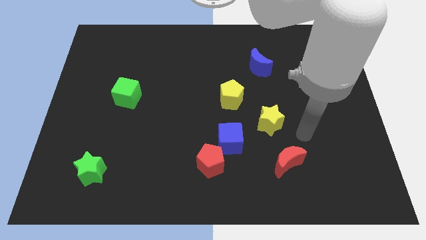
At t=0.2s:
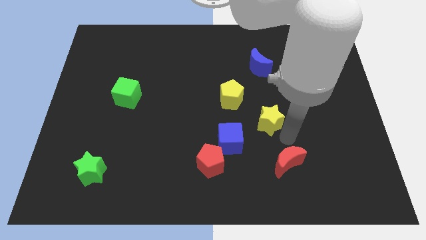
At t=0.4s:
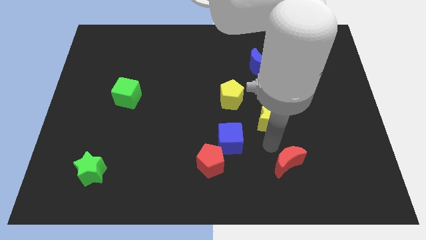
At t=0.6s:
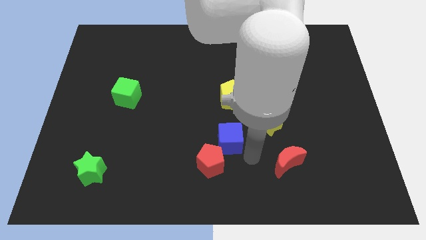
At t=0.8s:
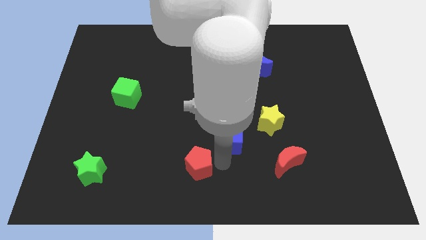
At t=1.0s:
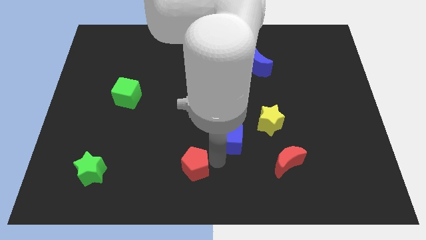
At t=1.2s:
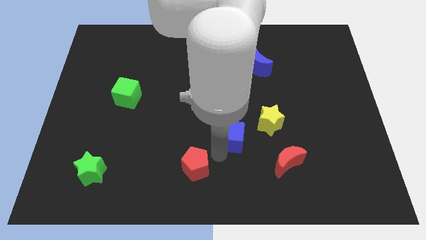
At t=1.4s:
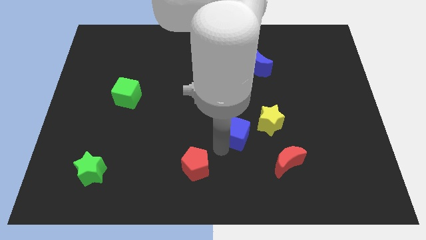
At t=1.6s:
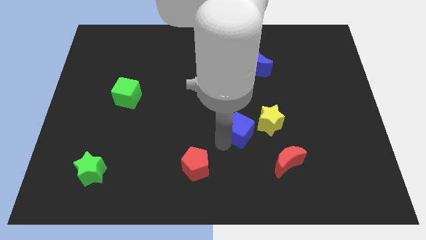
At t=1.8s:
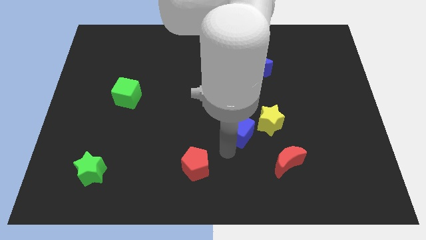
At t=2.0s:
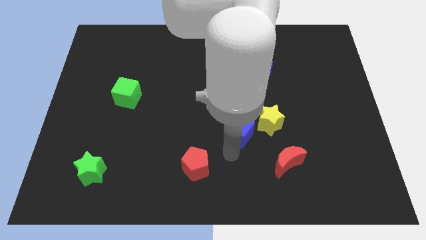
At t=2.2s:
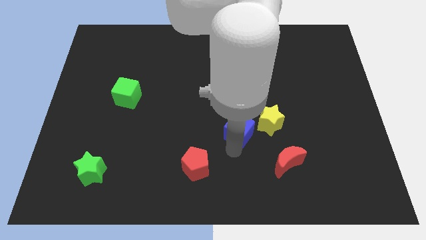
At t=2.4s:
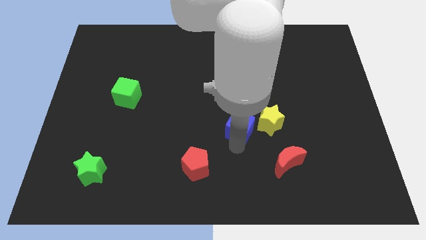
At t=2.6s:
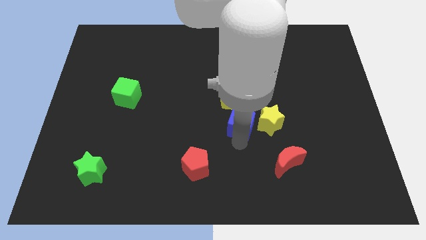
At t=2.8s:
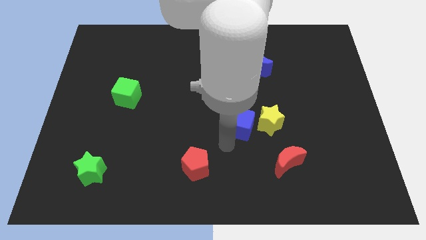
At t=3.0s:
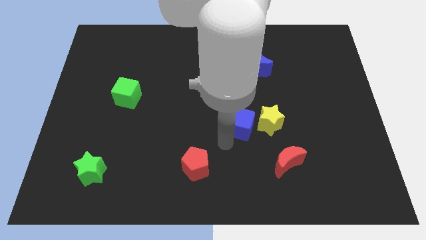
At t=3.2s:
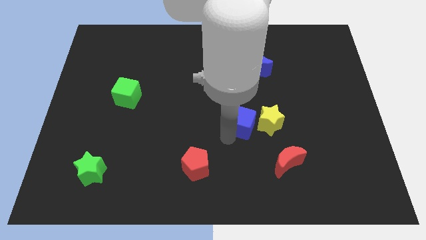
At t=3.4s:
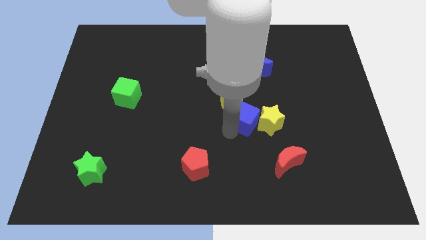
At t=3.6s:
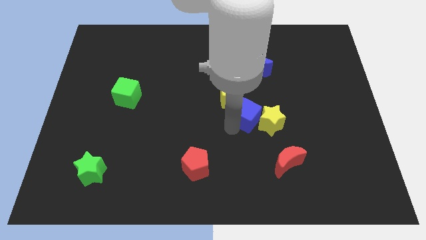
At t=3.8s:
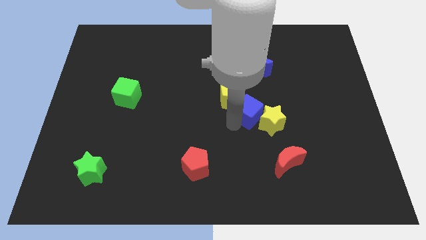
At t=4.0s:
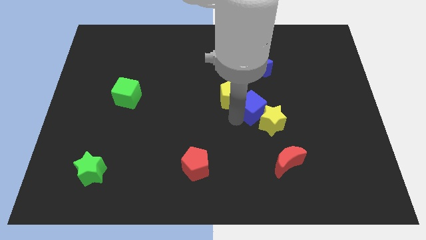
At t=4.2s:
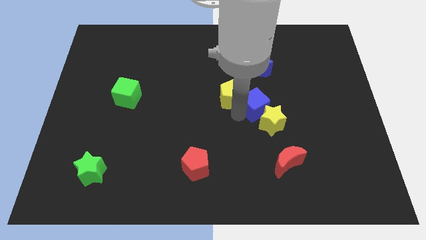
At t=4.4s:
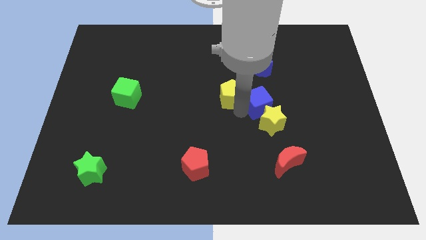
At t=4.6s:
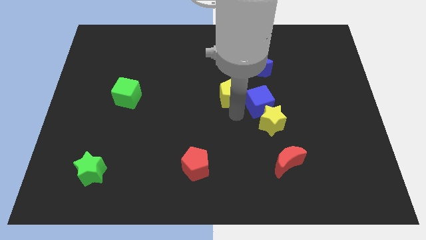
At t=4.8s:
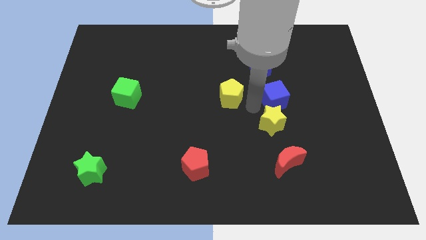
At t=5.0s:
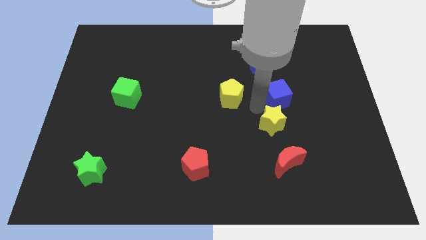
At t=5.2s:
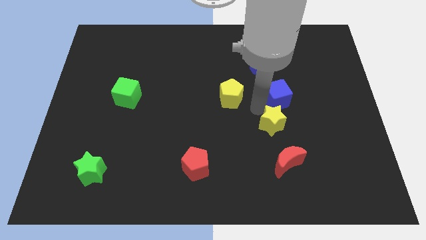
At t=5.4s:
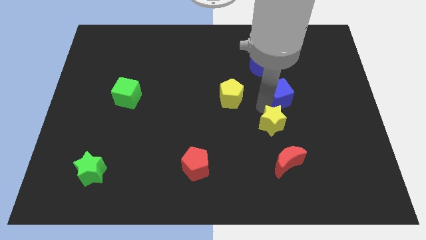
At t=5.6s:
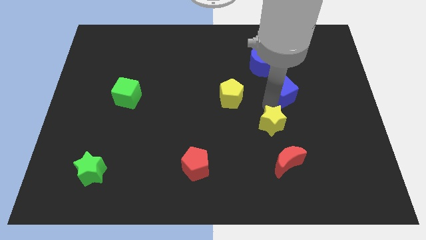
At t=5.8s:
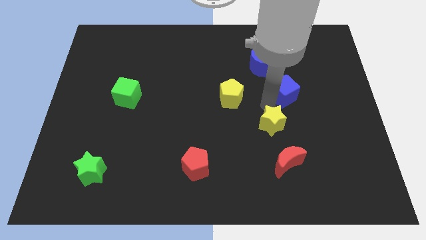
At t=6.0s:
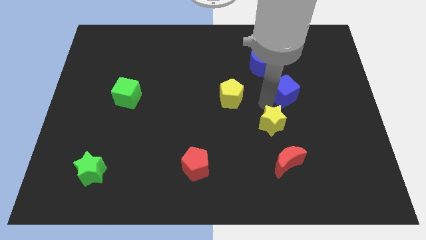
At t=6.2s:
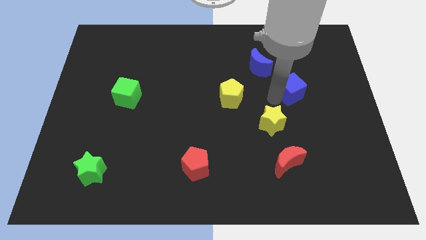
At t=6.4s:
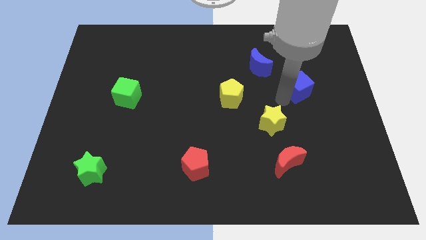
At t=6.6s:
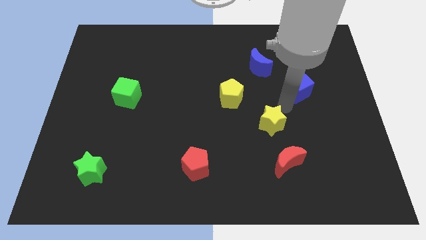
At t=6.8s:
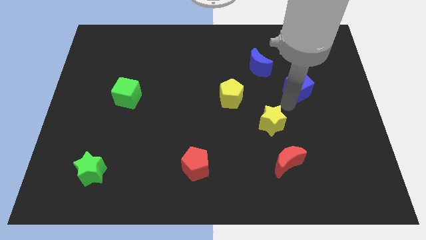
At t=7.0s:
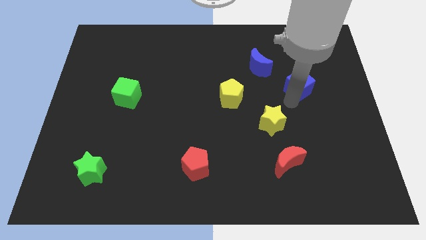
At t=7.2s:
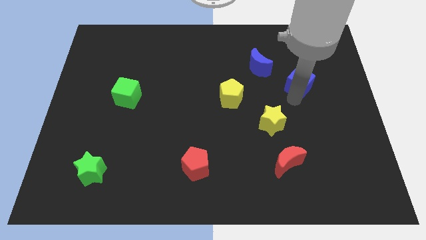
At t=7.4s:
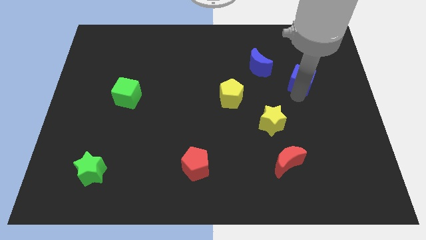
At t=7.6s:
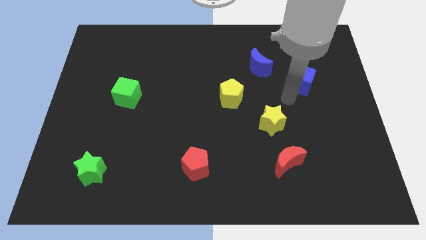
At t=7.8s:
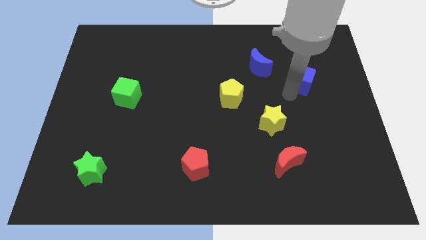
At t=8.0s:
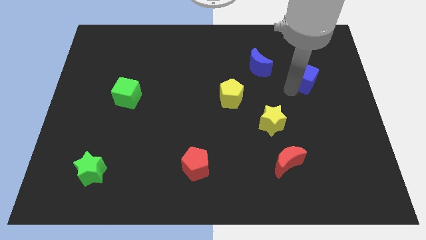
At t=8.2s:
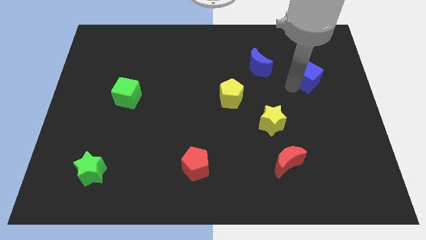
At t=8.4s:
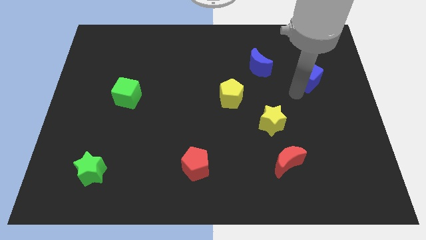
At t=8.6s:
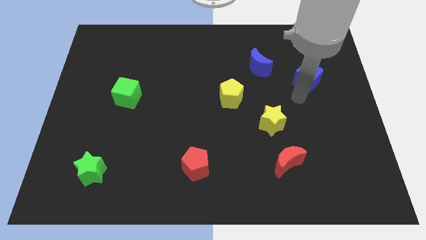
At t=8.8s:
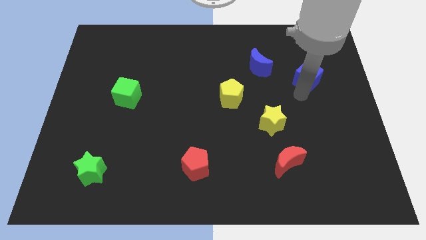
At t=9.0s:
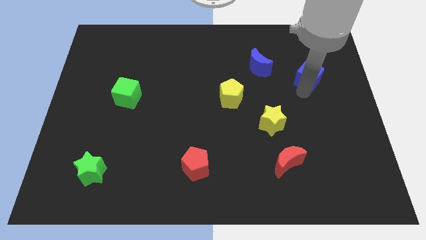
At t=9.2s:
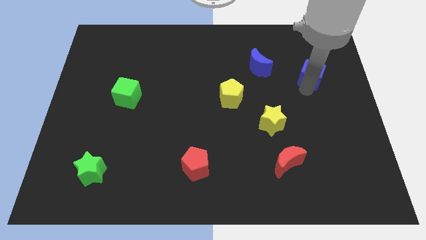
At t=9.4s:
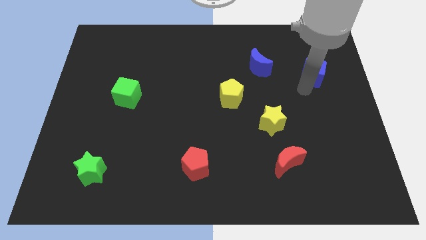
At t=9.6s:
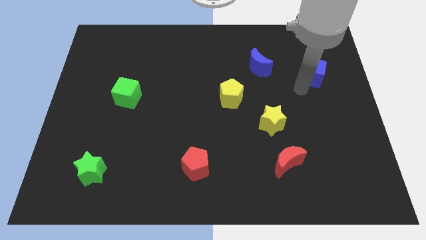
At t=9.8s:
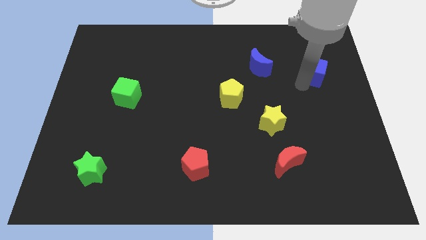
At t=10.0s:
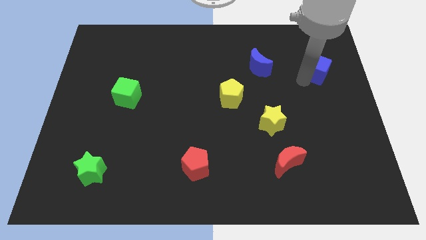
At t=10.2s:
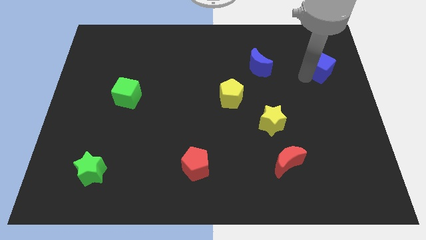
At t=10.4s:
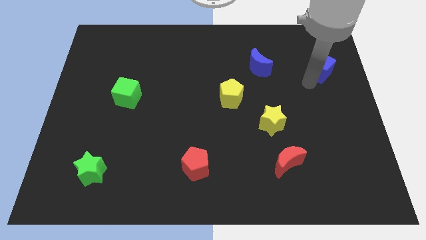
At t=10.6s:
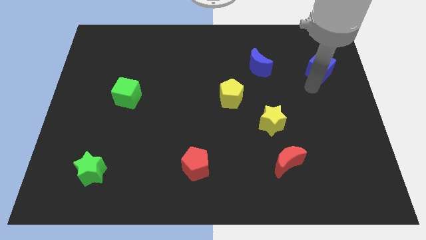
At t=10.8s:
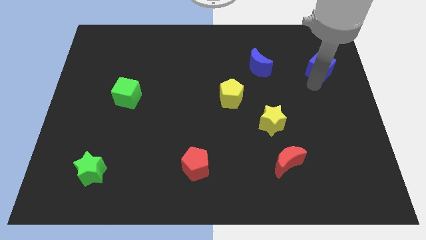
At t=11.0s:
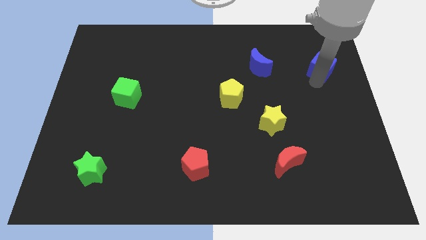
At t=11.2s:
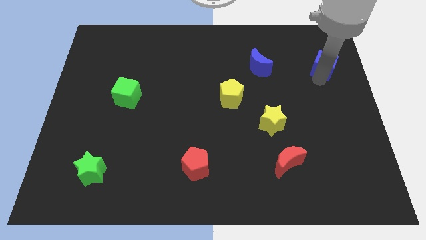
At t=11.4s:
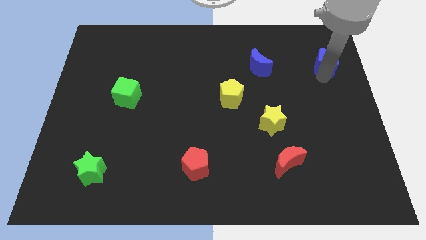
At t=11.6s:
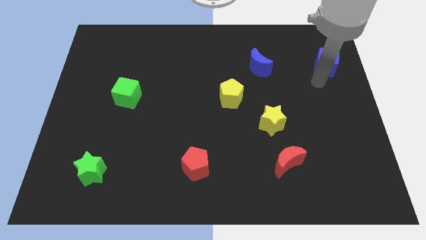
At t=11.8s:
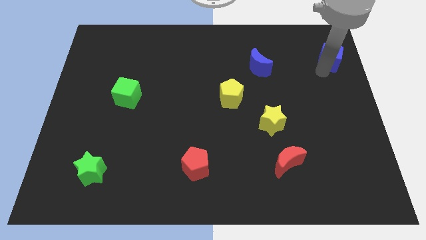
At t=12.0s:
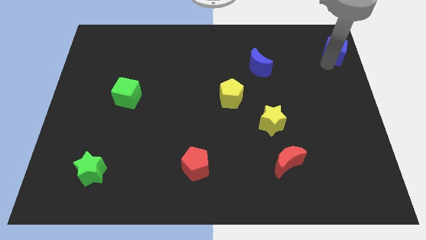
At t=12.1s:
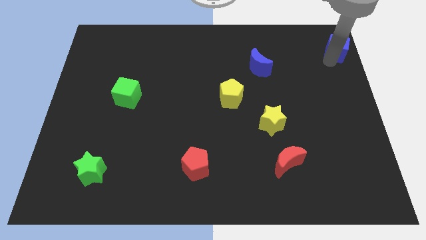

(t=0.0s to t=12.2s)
move the blue cube to the top right of the board
